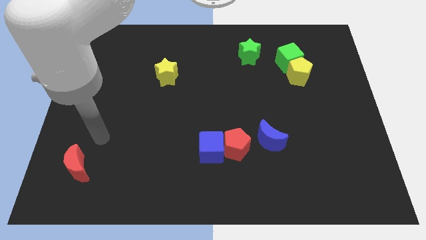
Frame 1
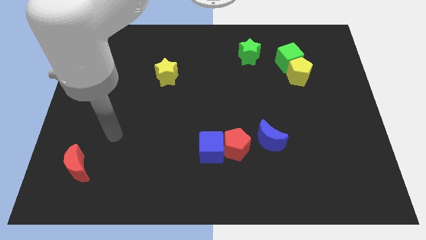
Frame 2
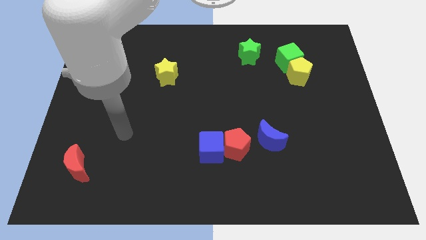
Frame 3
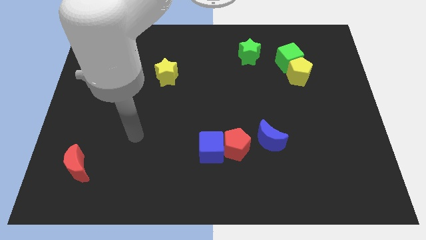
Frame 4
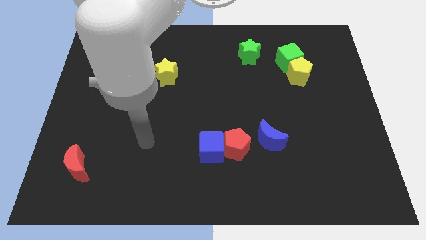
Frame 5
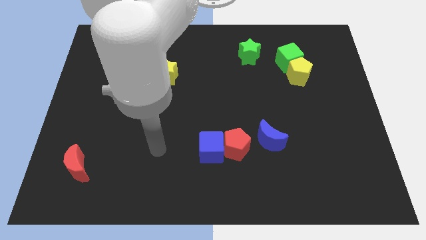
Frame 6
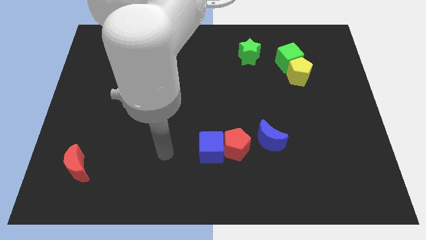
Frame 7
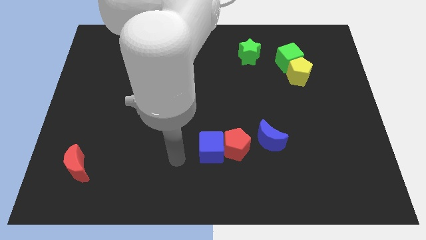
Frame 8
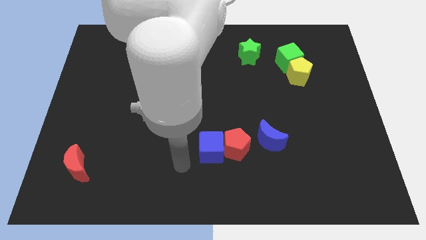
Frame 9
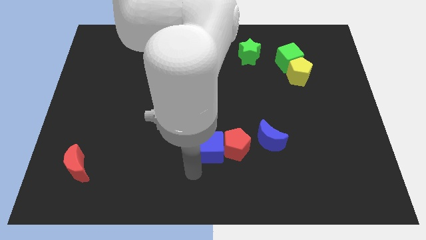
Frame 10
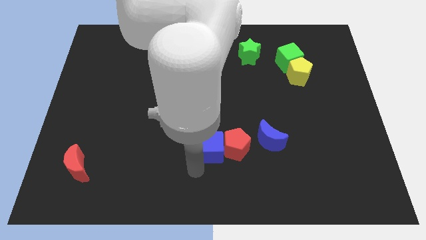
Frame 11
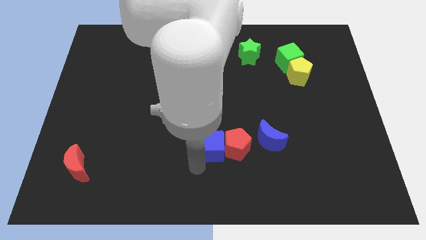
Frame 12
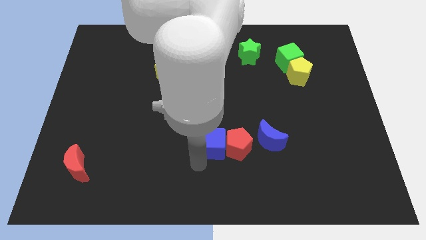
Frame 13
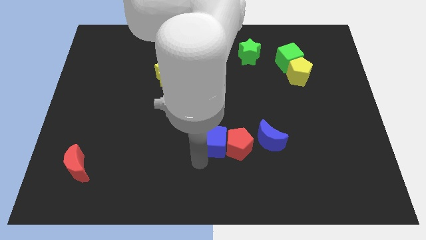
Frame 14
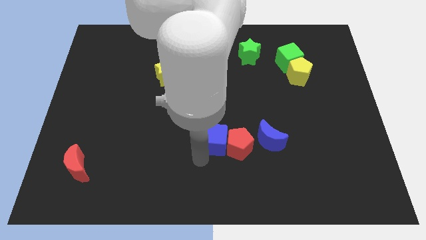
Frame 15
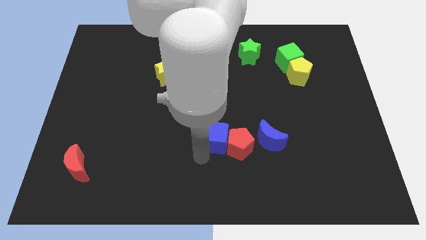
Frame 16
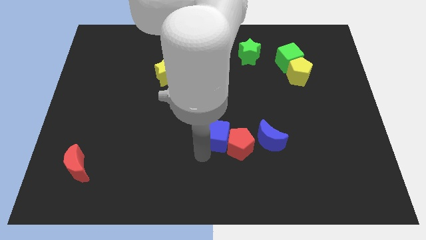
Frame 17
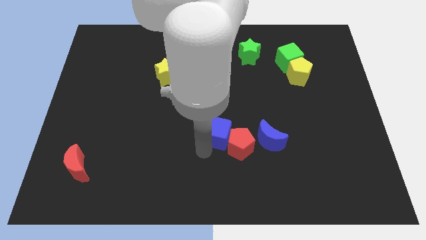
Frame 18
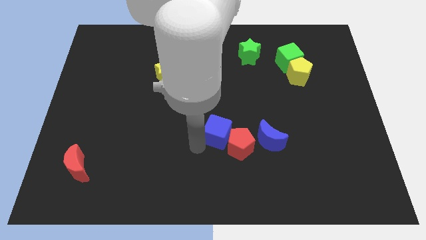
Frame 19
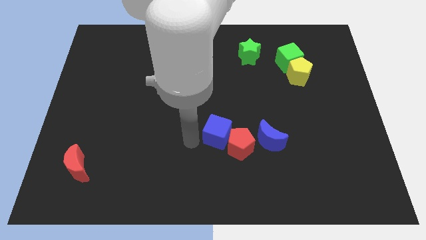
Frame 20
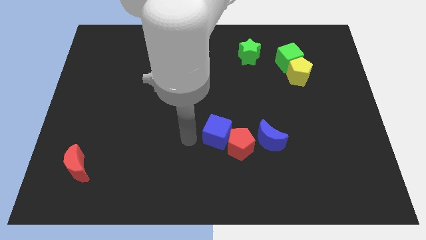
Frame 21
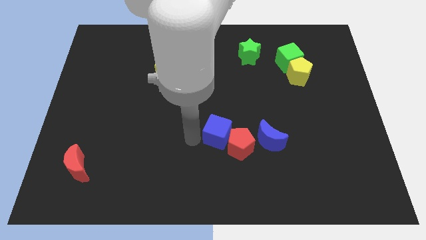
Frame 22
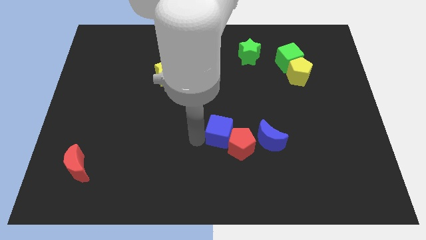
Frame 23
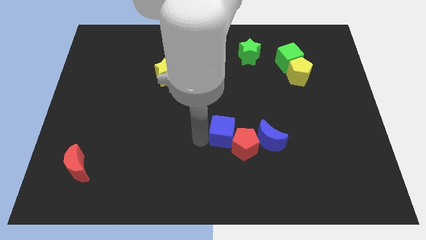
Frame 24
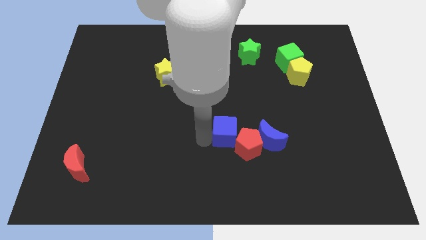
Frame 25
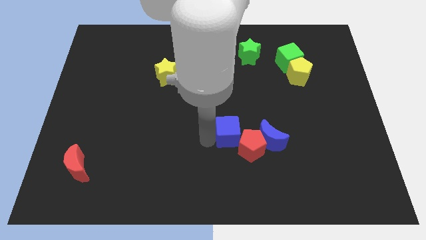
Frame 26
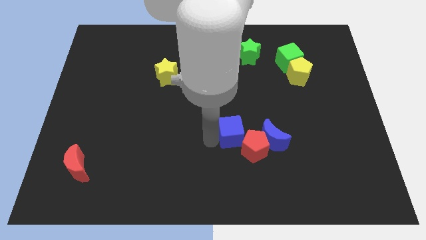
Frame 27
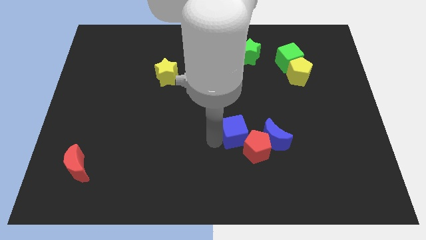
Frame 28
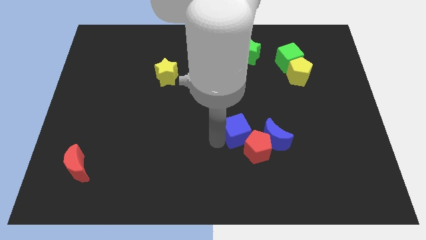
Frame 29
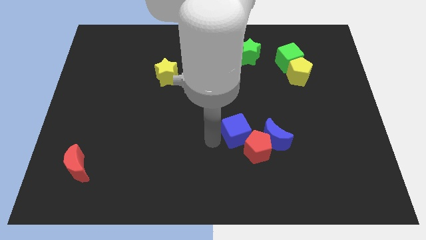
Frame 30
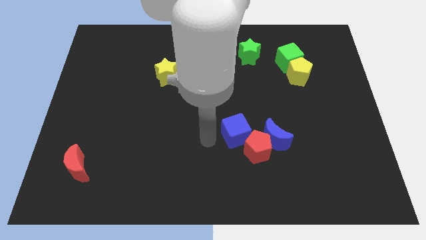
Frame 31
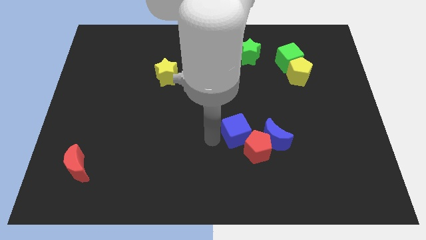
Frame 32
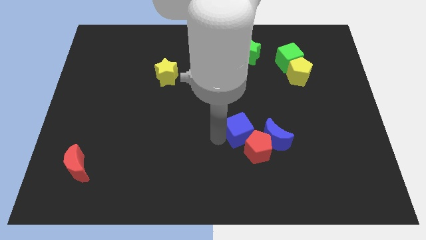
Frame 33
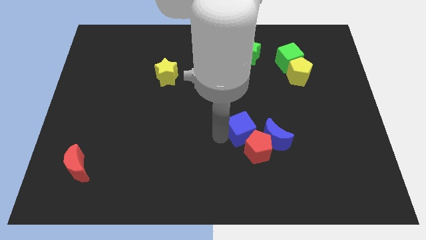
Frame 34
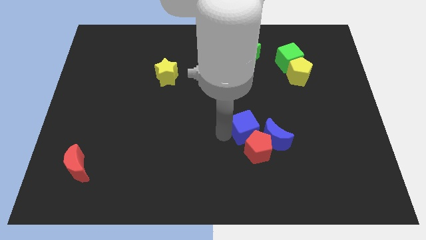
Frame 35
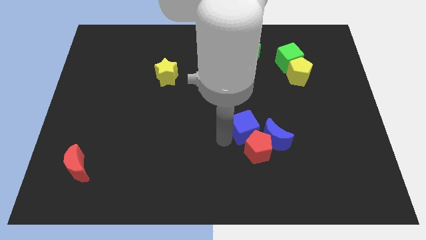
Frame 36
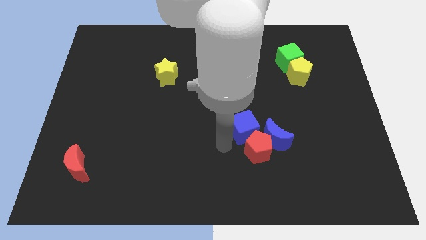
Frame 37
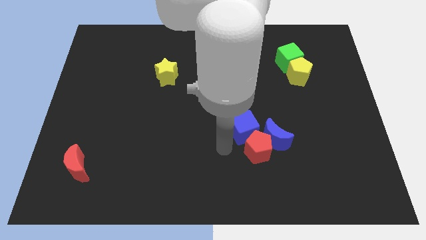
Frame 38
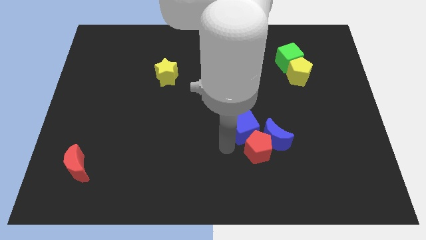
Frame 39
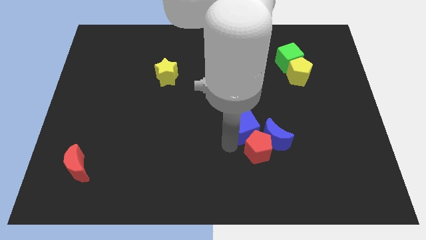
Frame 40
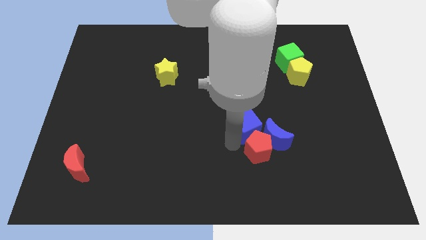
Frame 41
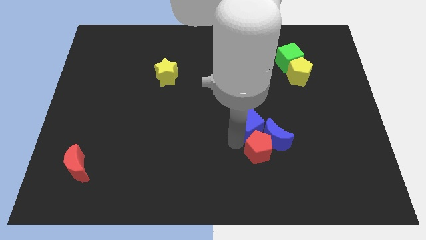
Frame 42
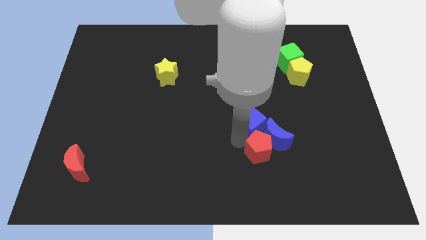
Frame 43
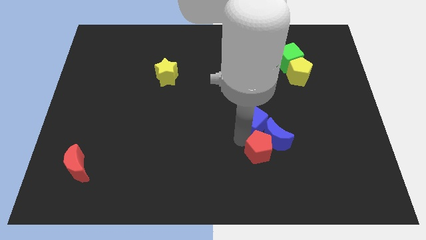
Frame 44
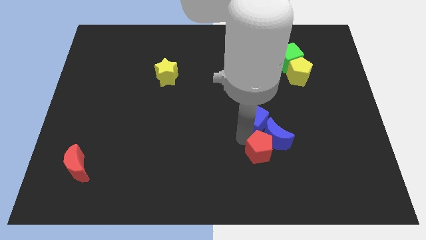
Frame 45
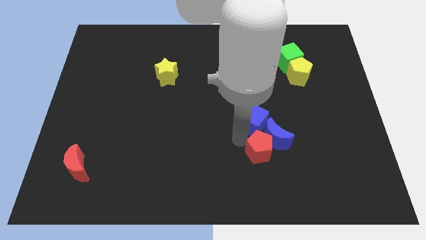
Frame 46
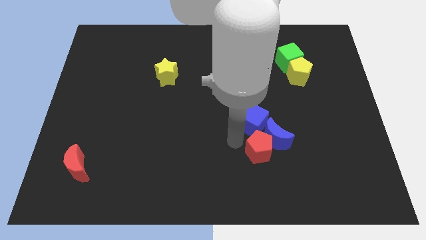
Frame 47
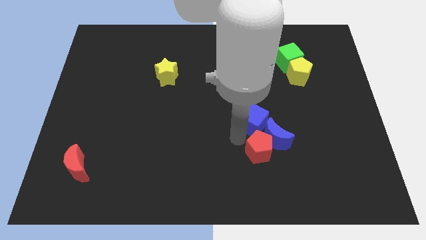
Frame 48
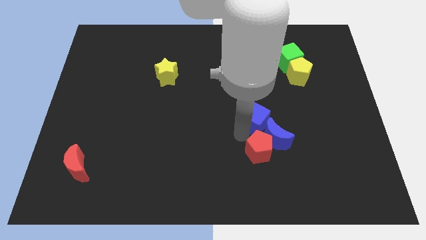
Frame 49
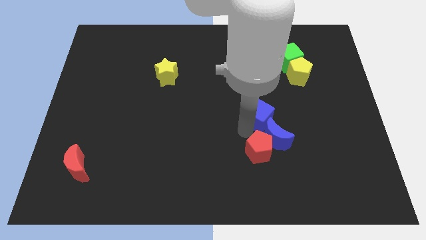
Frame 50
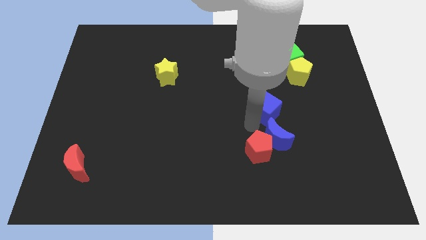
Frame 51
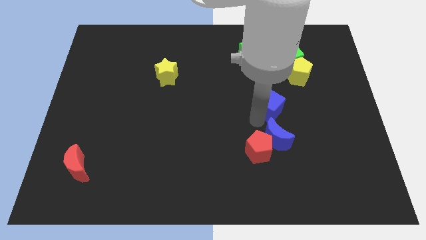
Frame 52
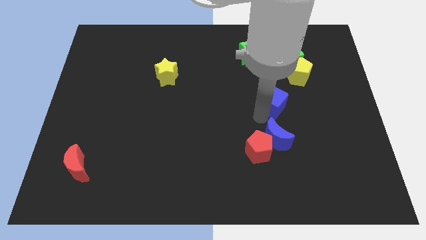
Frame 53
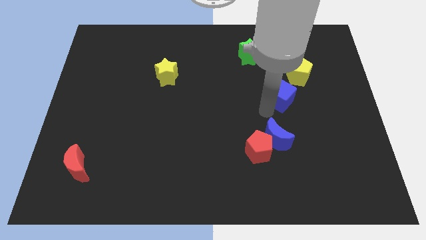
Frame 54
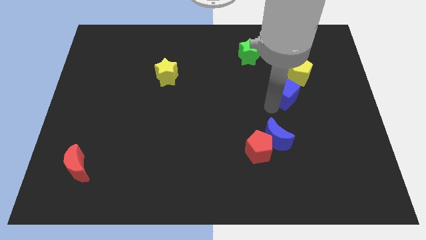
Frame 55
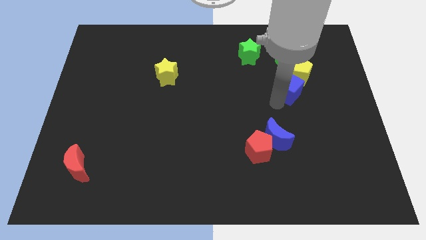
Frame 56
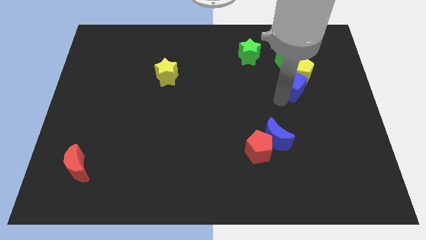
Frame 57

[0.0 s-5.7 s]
slide the blue cube close to the yellow pentagon

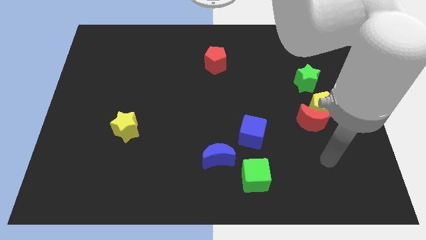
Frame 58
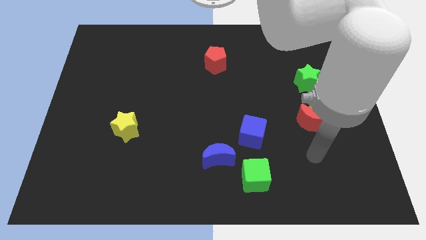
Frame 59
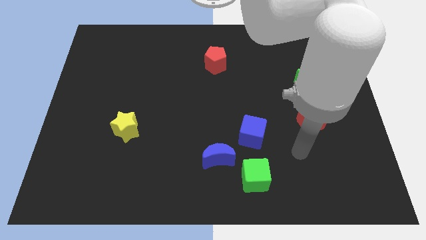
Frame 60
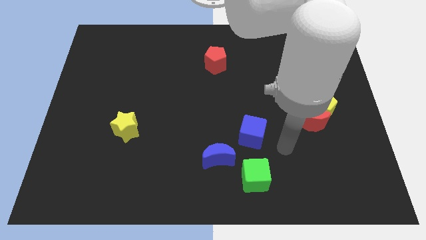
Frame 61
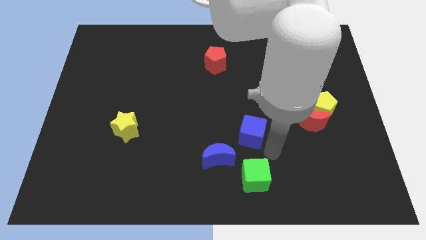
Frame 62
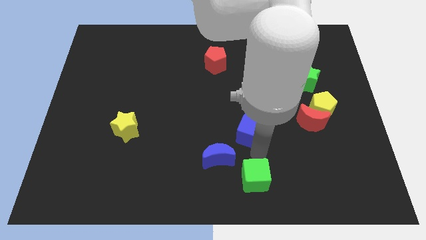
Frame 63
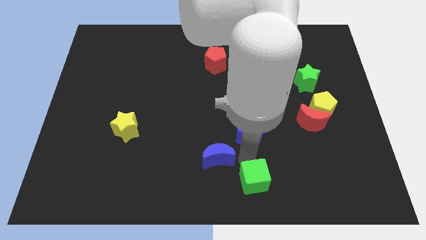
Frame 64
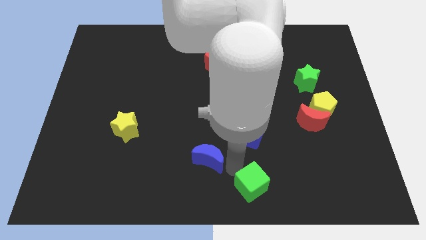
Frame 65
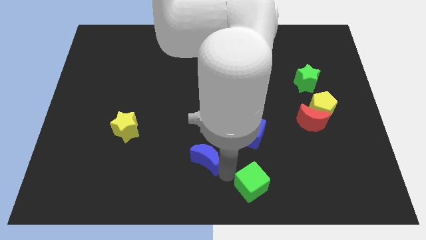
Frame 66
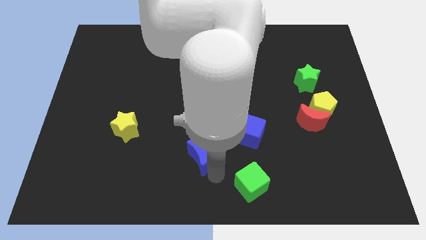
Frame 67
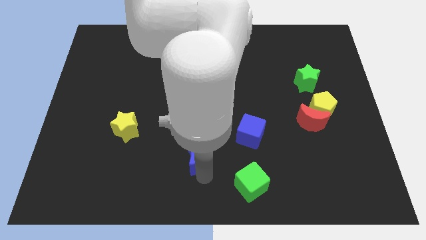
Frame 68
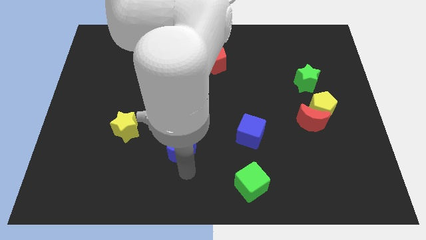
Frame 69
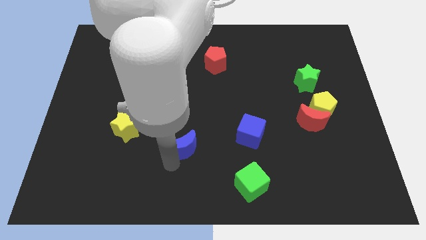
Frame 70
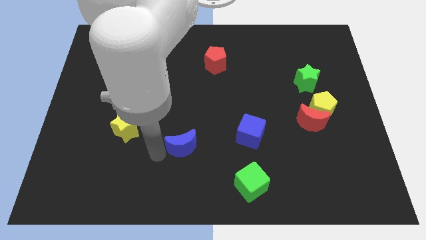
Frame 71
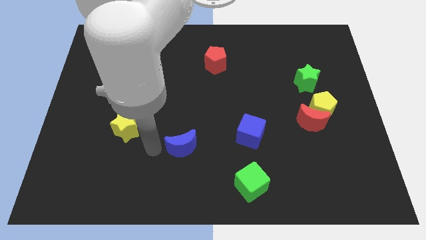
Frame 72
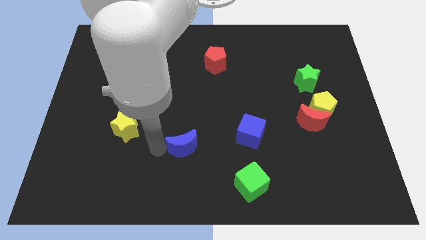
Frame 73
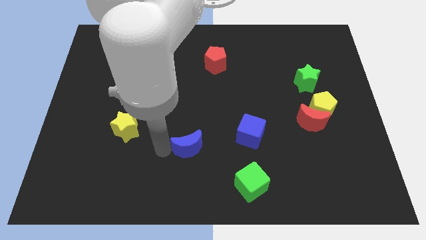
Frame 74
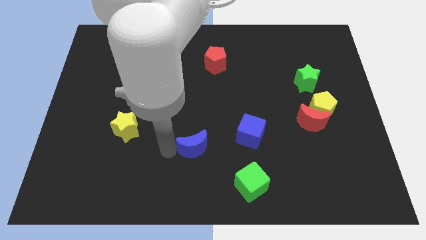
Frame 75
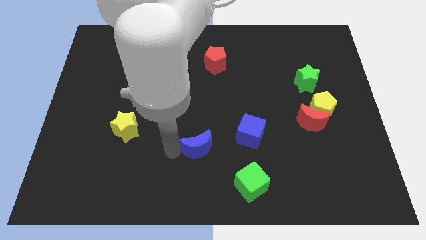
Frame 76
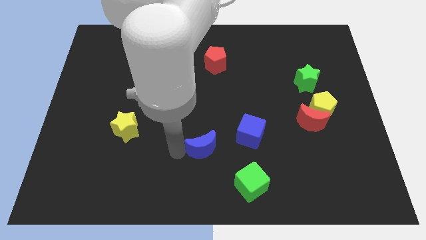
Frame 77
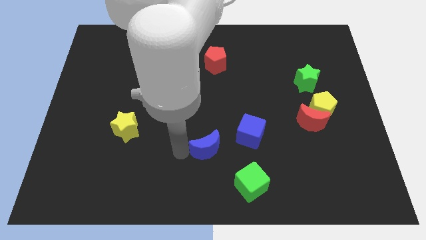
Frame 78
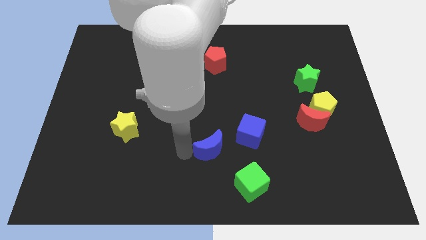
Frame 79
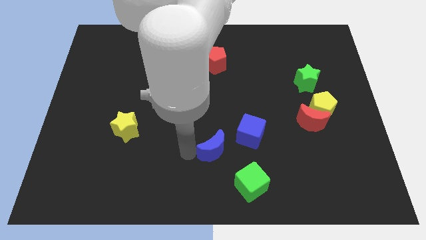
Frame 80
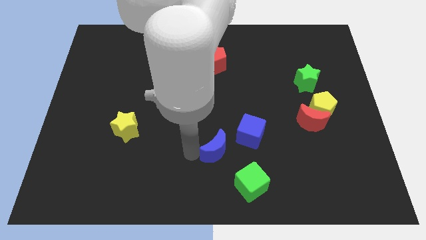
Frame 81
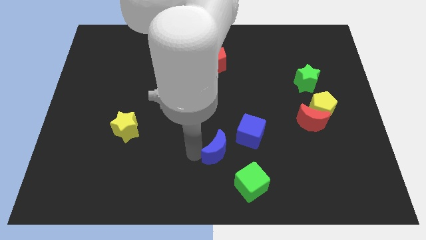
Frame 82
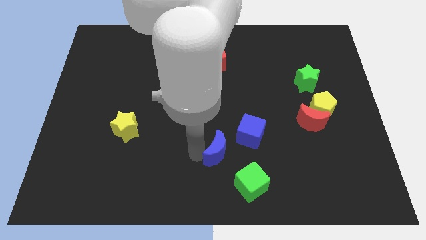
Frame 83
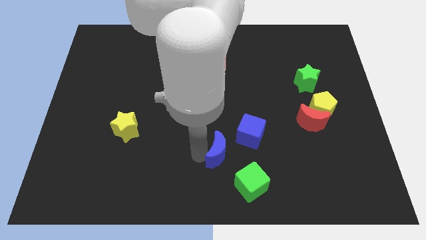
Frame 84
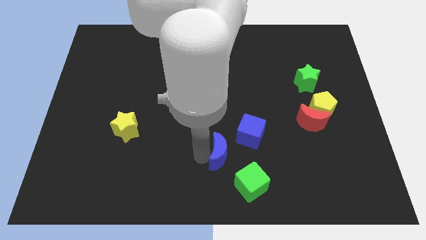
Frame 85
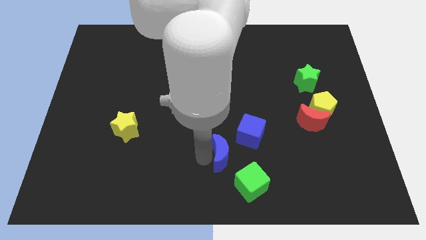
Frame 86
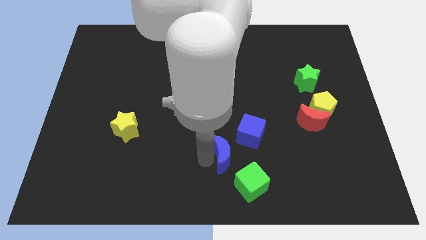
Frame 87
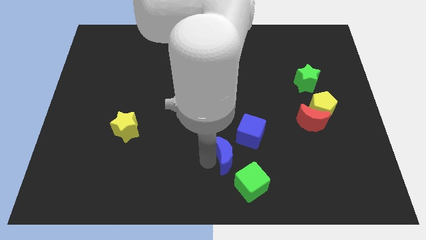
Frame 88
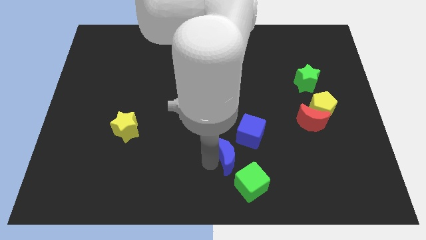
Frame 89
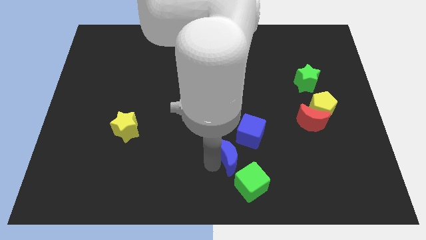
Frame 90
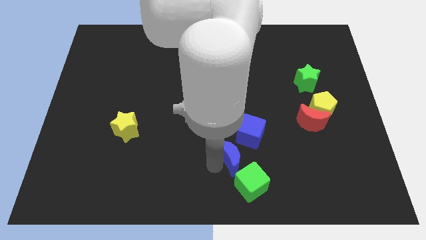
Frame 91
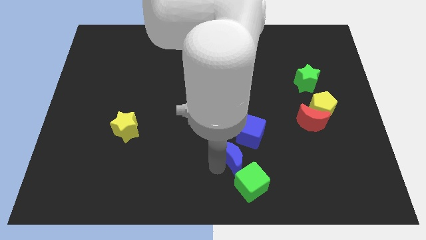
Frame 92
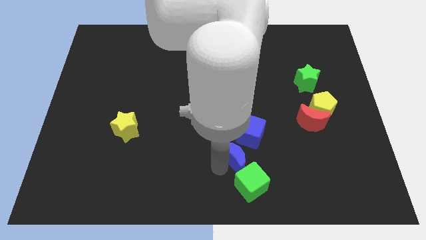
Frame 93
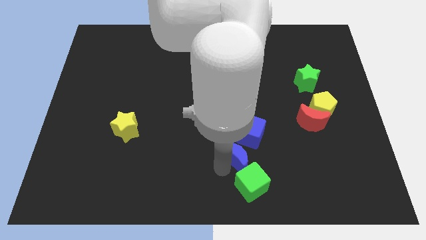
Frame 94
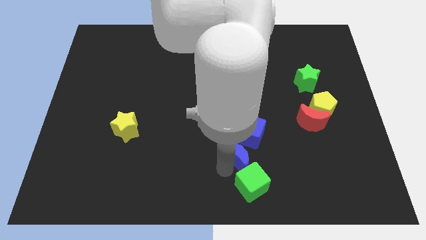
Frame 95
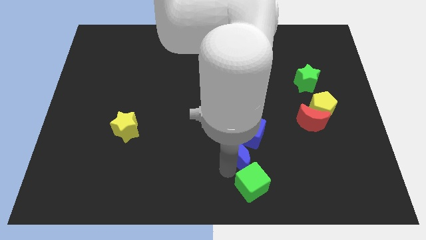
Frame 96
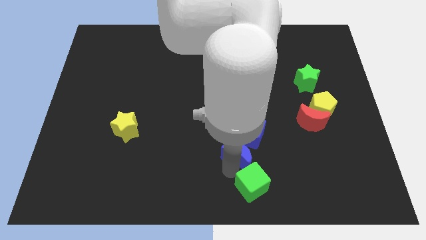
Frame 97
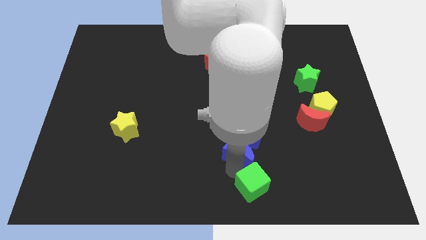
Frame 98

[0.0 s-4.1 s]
move the blue moon towards the blue cube
